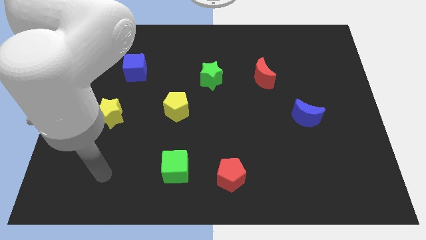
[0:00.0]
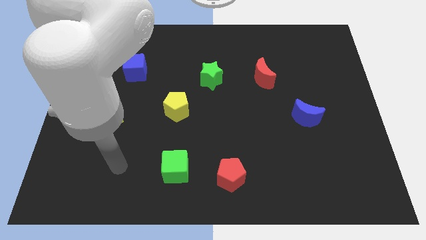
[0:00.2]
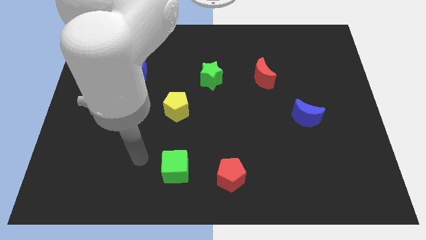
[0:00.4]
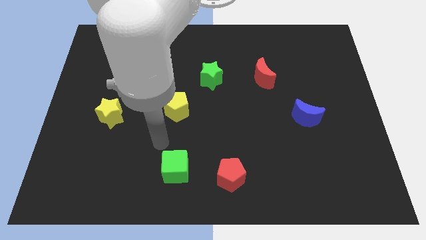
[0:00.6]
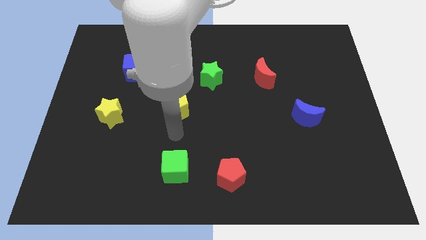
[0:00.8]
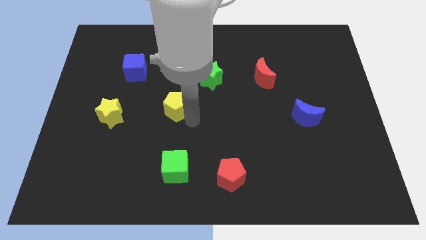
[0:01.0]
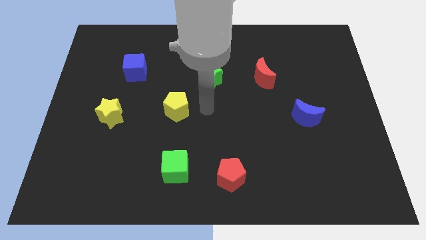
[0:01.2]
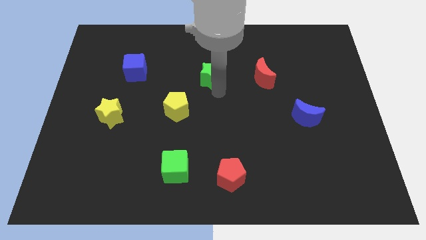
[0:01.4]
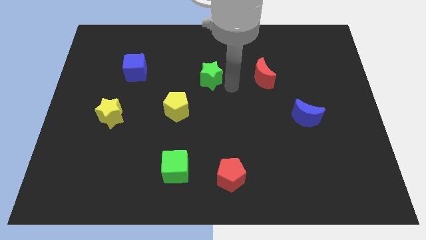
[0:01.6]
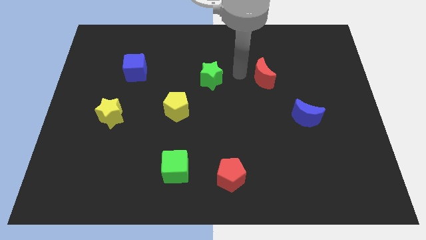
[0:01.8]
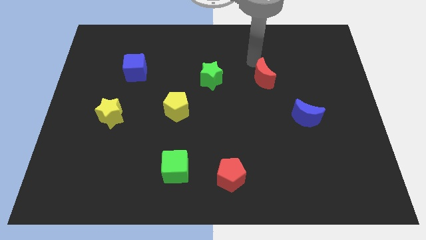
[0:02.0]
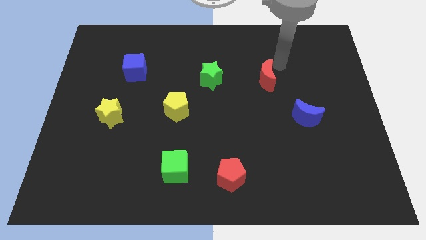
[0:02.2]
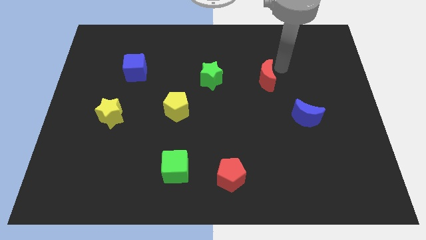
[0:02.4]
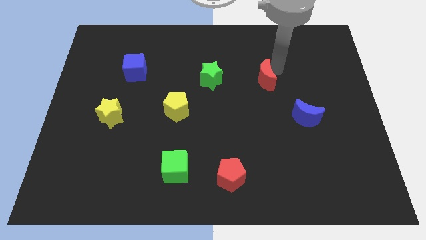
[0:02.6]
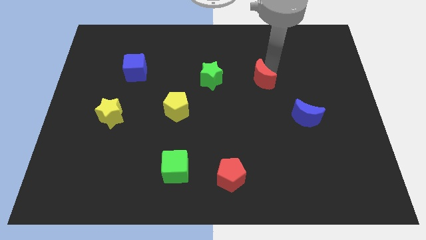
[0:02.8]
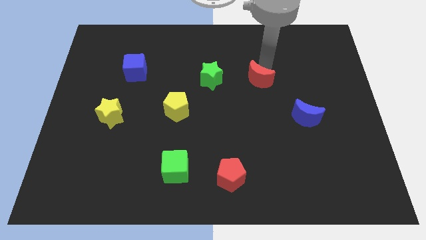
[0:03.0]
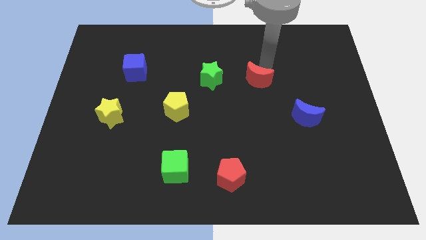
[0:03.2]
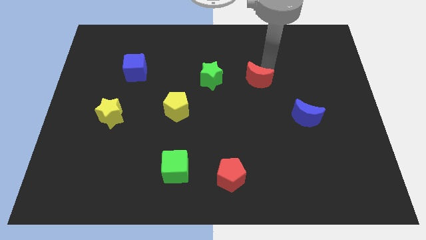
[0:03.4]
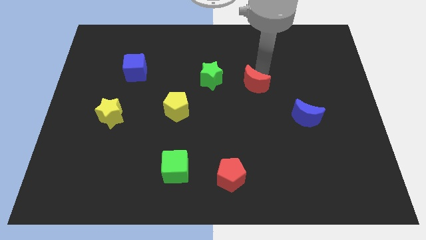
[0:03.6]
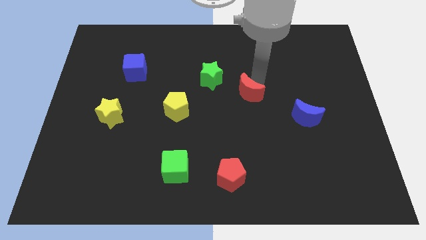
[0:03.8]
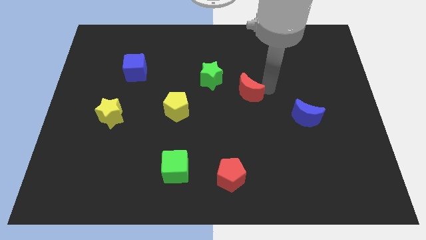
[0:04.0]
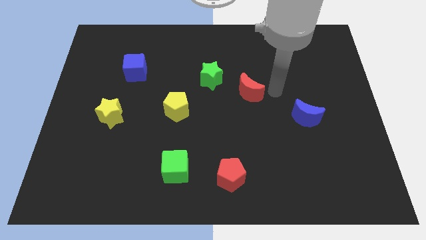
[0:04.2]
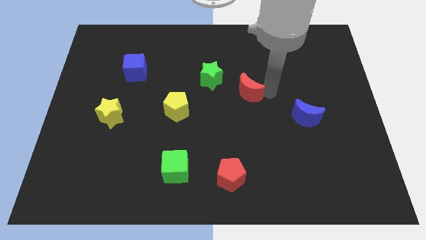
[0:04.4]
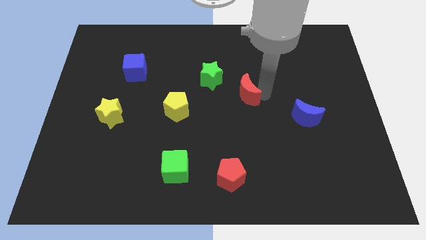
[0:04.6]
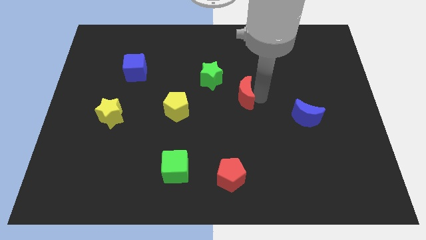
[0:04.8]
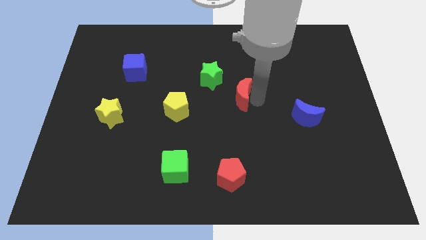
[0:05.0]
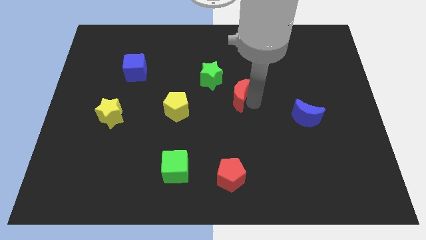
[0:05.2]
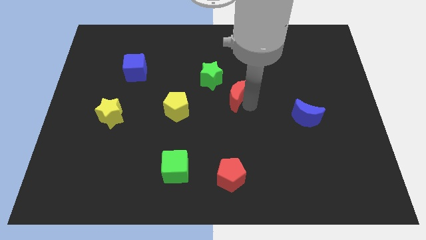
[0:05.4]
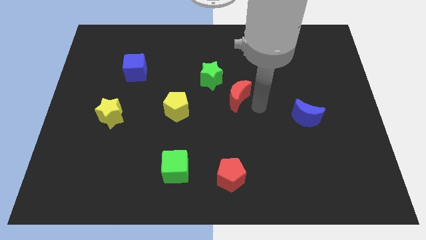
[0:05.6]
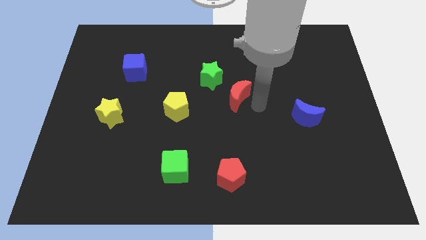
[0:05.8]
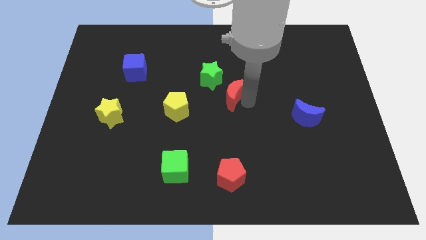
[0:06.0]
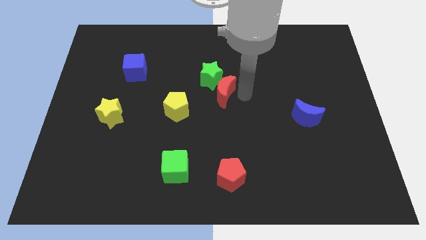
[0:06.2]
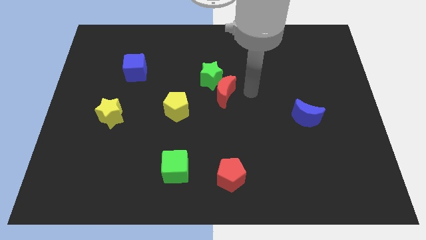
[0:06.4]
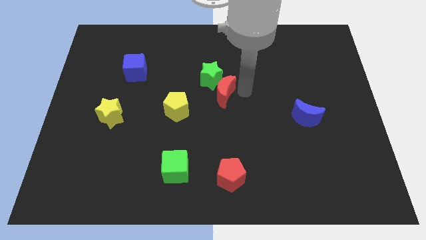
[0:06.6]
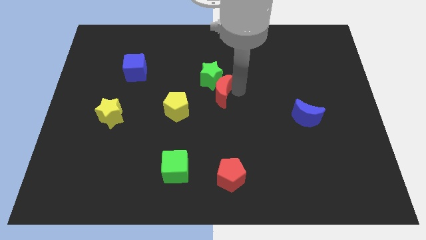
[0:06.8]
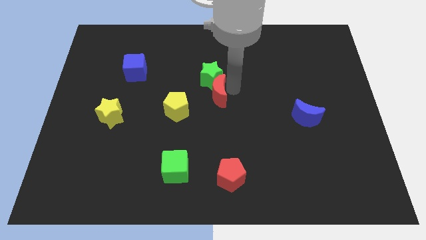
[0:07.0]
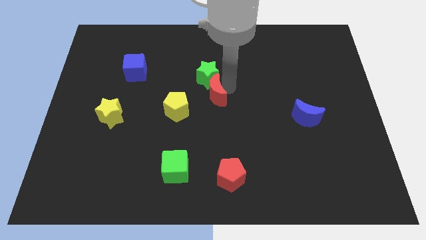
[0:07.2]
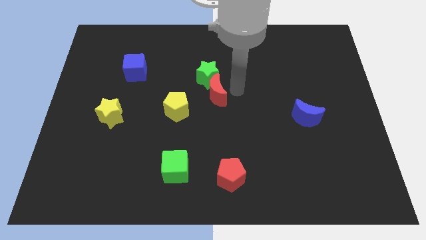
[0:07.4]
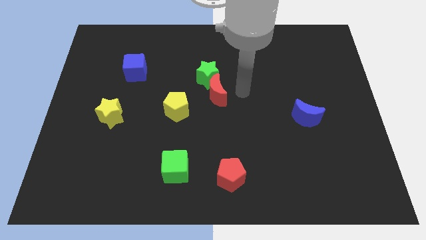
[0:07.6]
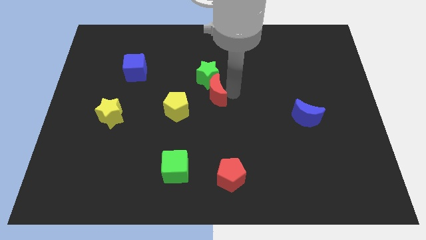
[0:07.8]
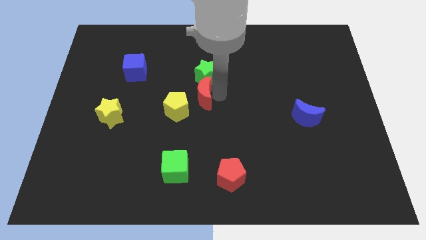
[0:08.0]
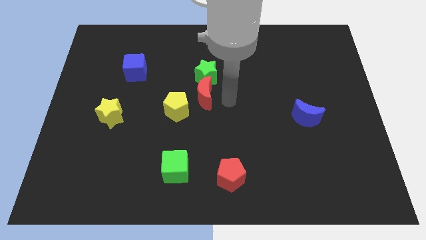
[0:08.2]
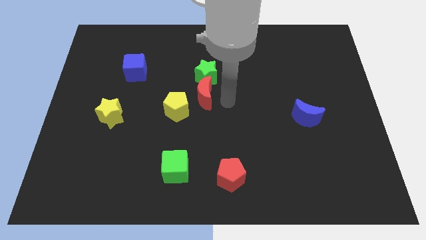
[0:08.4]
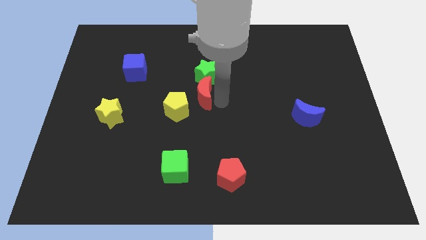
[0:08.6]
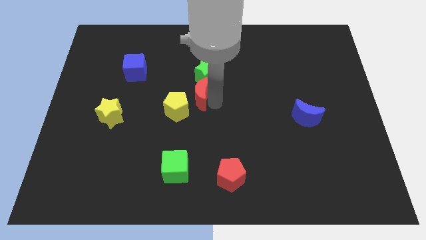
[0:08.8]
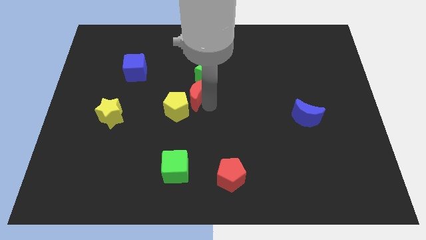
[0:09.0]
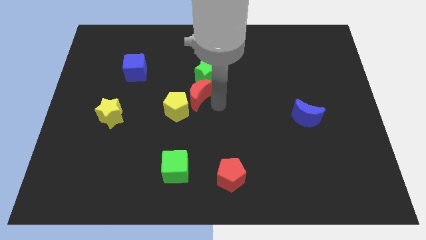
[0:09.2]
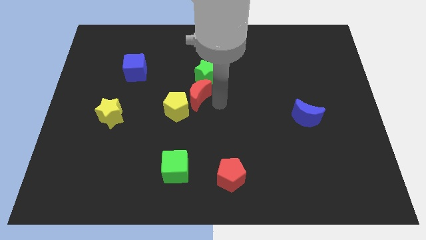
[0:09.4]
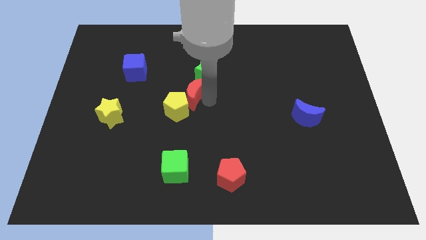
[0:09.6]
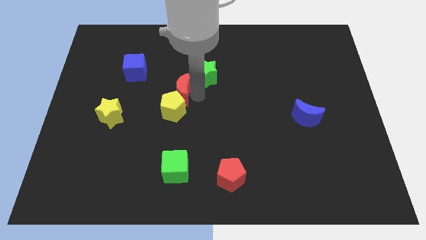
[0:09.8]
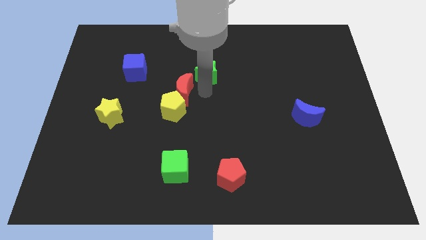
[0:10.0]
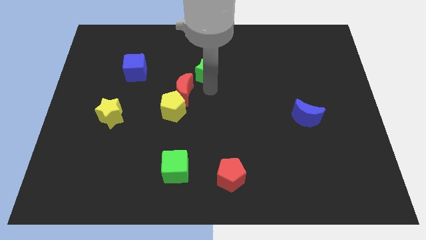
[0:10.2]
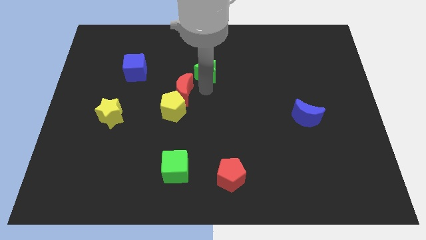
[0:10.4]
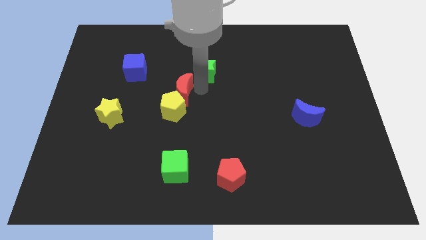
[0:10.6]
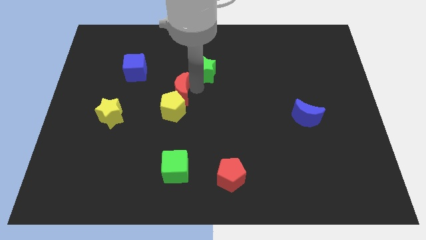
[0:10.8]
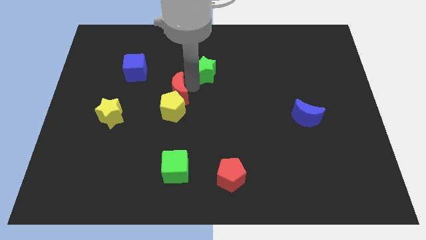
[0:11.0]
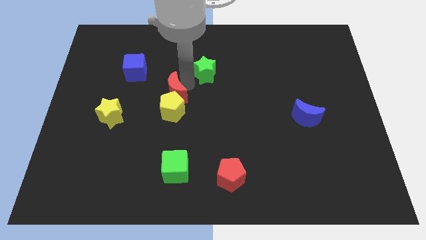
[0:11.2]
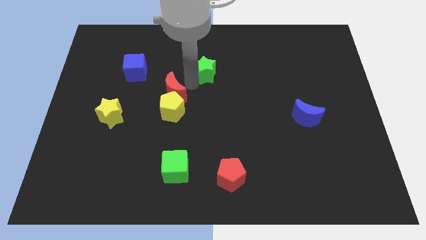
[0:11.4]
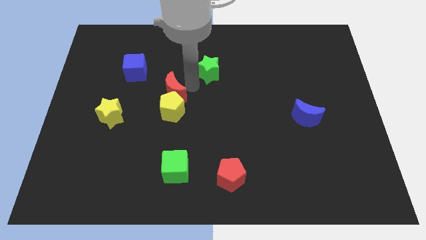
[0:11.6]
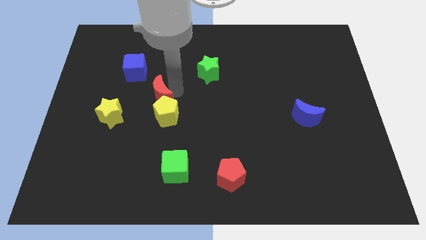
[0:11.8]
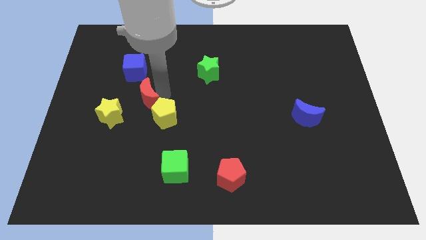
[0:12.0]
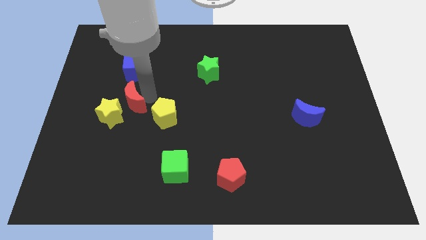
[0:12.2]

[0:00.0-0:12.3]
slide the red moon close to the yellow star

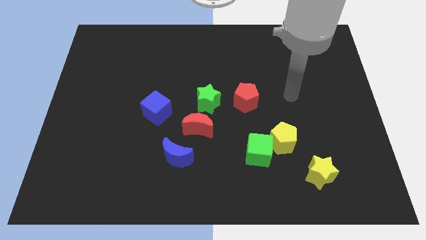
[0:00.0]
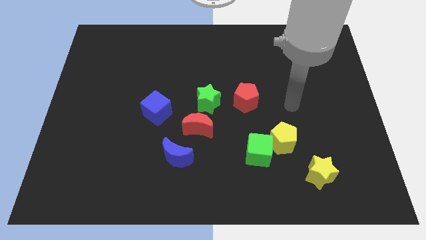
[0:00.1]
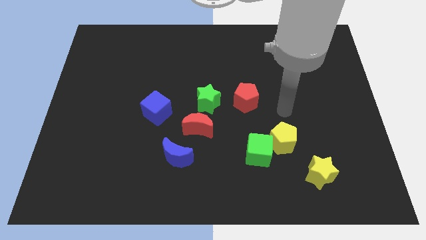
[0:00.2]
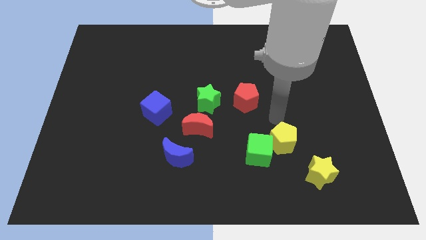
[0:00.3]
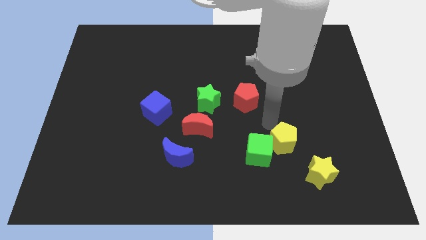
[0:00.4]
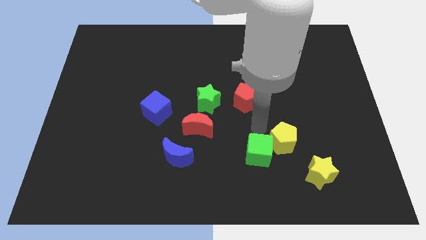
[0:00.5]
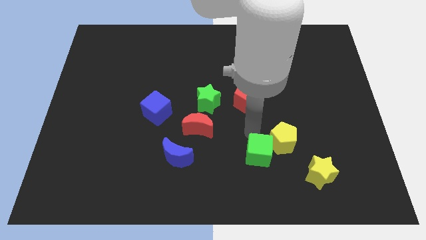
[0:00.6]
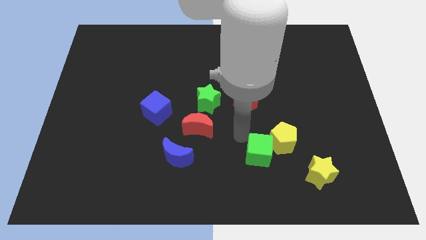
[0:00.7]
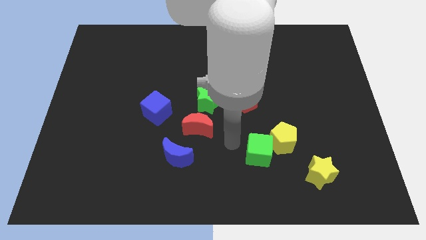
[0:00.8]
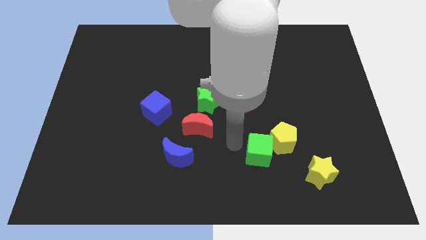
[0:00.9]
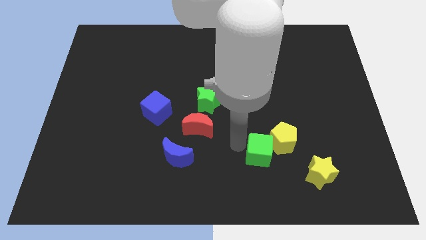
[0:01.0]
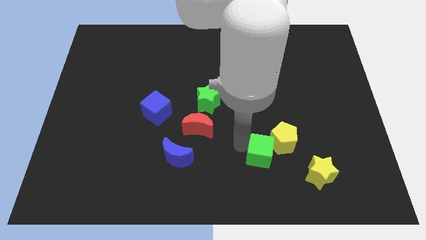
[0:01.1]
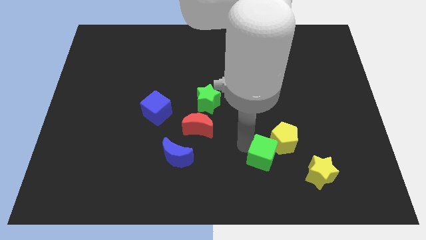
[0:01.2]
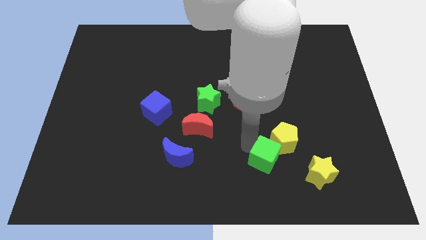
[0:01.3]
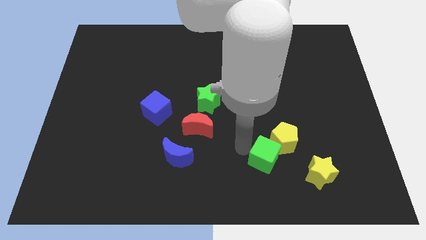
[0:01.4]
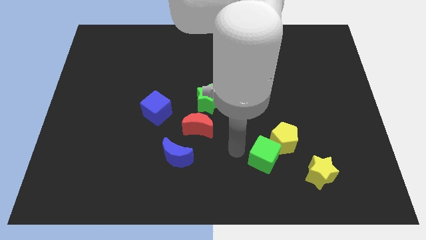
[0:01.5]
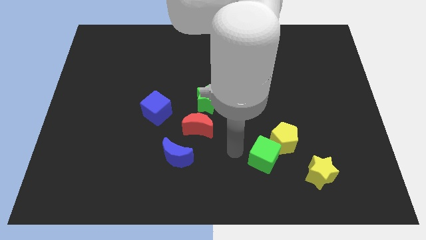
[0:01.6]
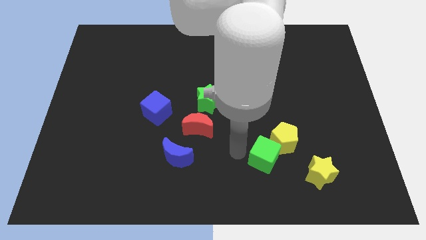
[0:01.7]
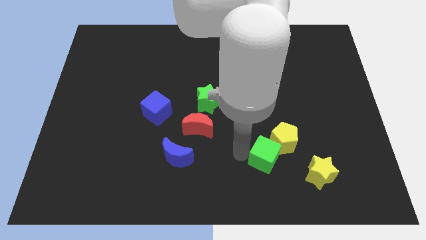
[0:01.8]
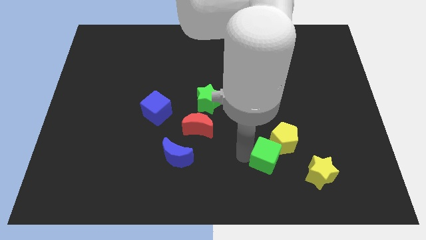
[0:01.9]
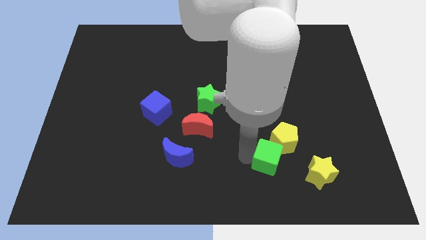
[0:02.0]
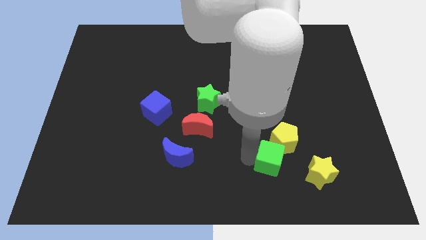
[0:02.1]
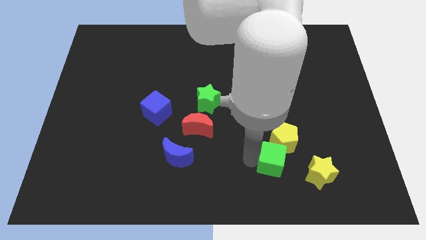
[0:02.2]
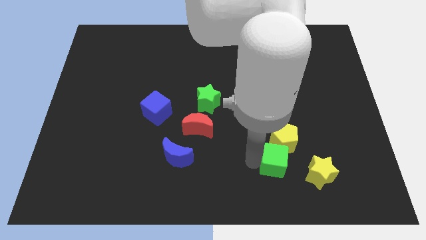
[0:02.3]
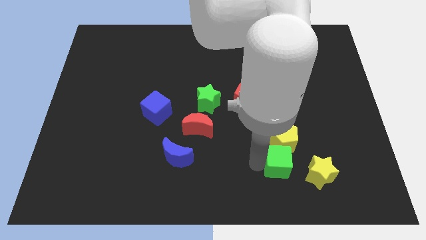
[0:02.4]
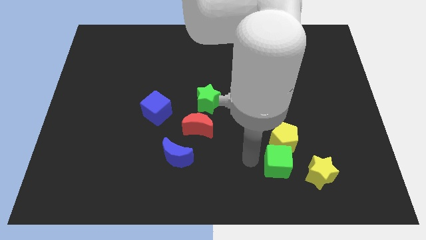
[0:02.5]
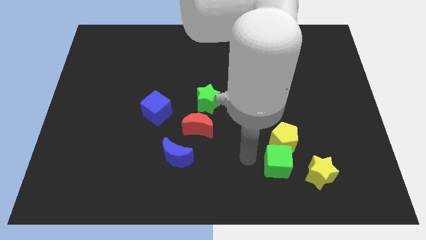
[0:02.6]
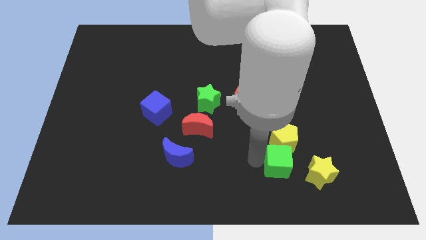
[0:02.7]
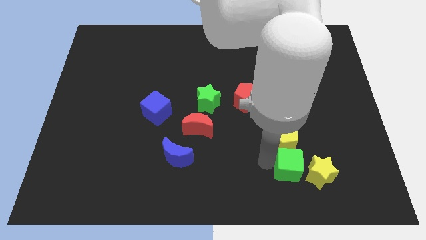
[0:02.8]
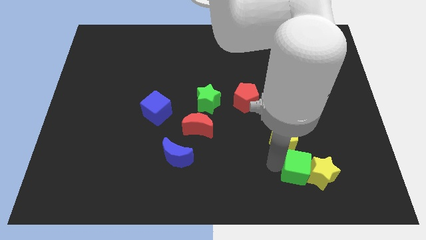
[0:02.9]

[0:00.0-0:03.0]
slide the green cube close to the yellow star
